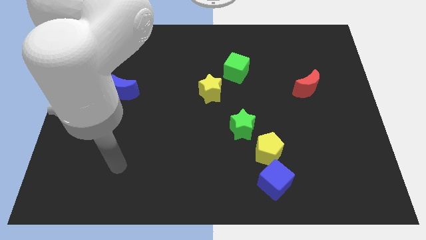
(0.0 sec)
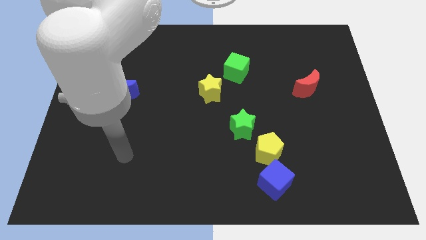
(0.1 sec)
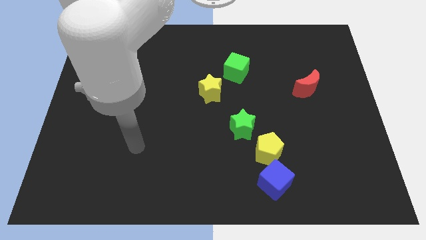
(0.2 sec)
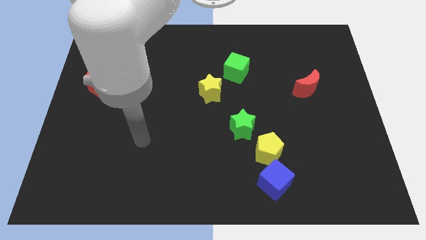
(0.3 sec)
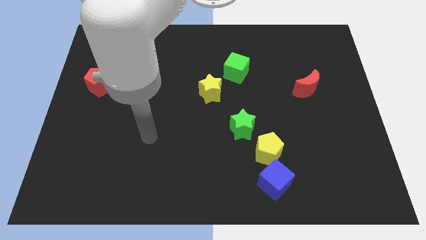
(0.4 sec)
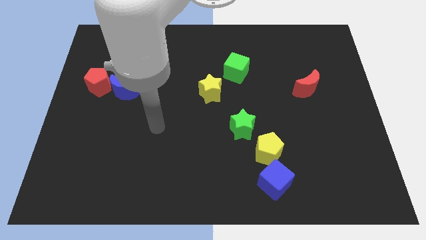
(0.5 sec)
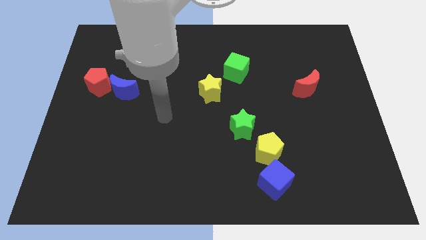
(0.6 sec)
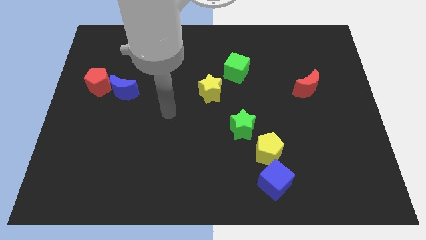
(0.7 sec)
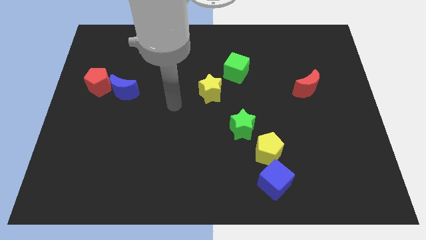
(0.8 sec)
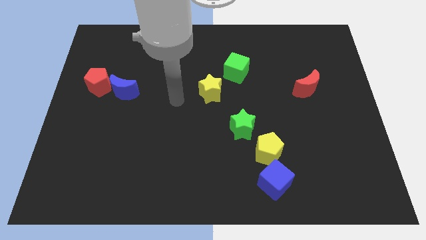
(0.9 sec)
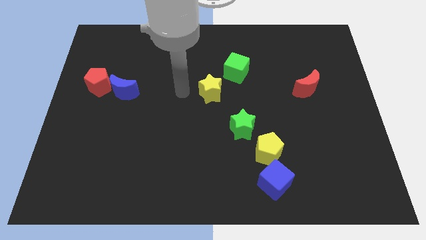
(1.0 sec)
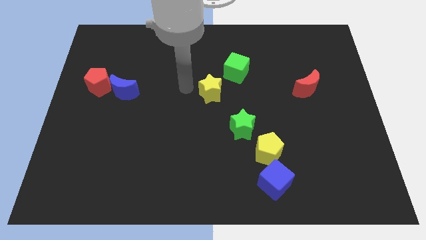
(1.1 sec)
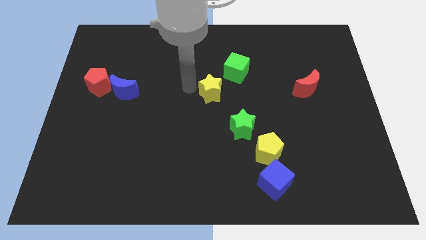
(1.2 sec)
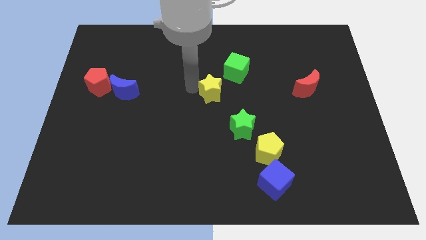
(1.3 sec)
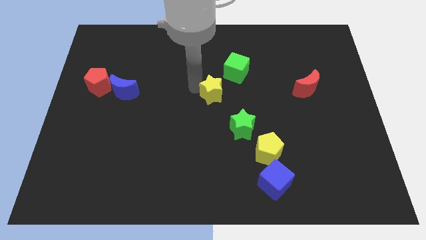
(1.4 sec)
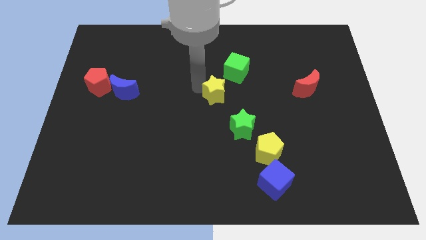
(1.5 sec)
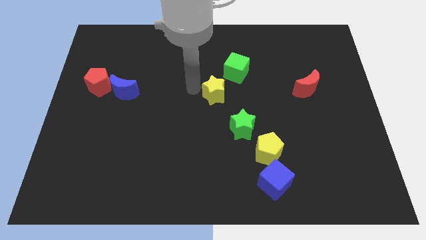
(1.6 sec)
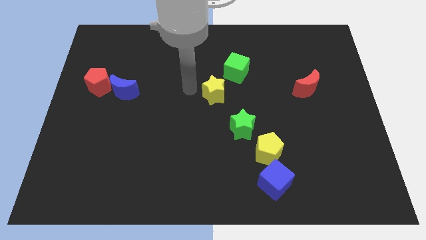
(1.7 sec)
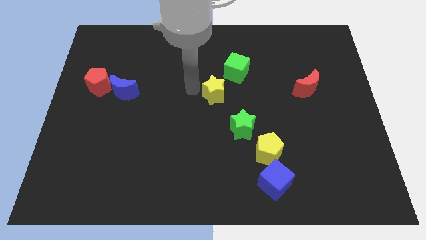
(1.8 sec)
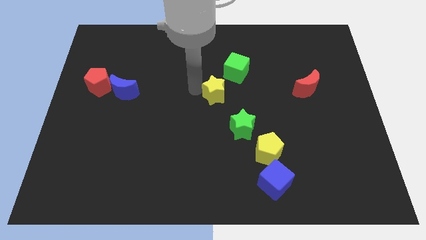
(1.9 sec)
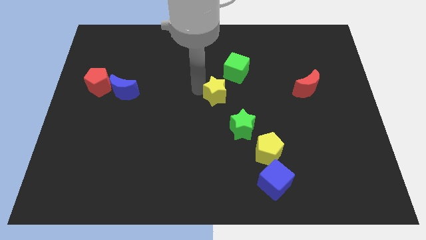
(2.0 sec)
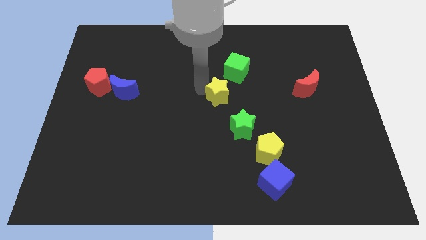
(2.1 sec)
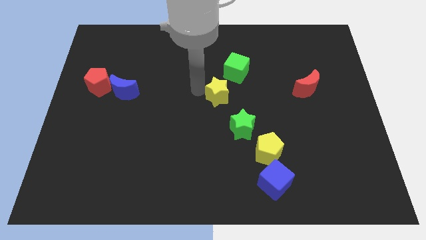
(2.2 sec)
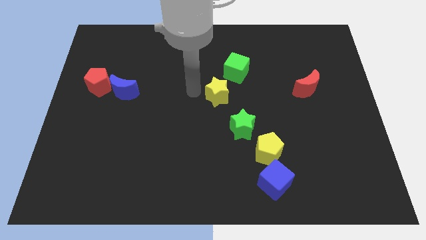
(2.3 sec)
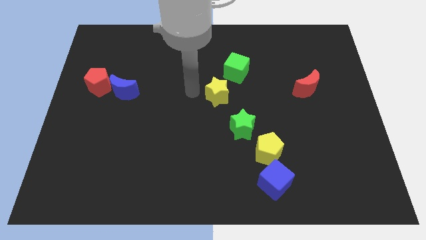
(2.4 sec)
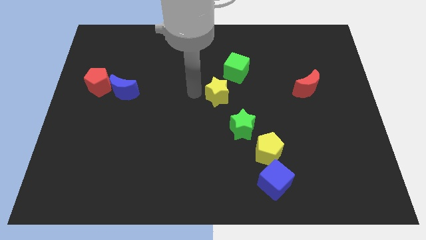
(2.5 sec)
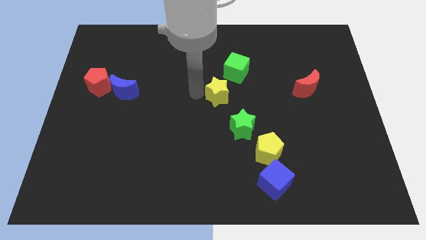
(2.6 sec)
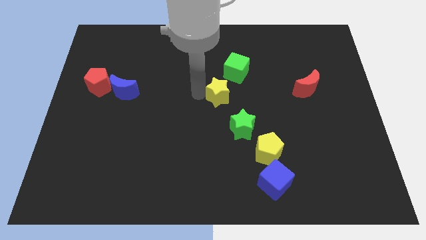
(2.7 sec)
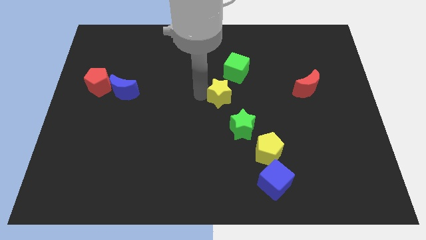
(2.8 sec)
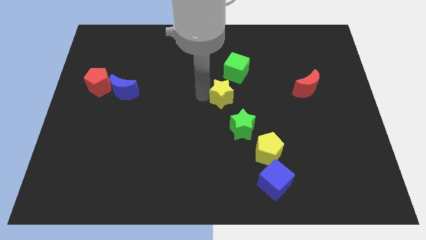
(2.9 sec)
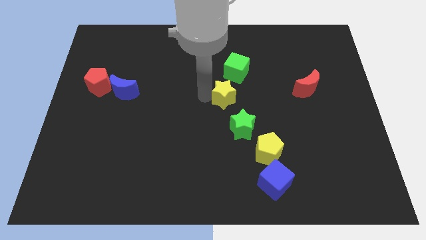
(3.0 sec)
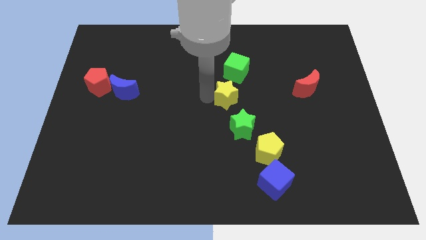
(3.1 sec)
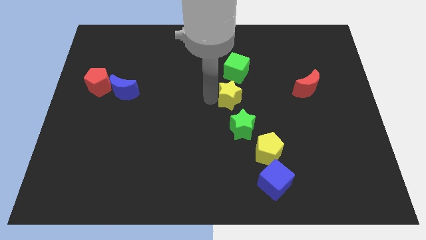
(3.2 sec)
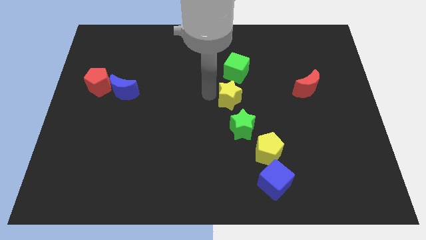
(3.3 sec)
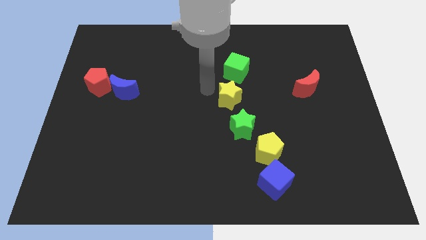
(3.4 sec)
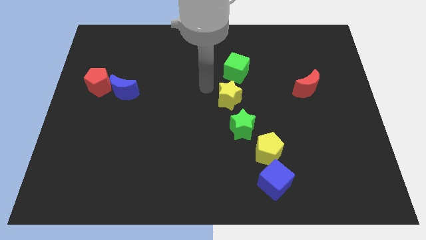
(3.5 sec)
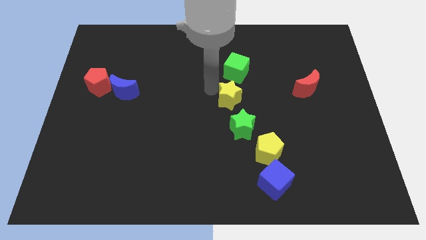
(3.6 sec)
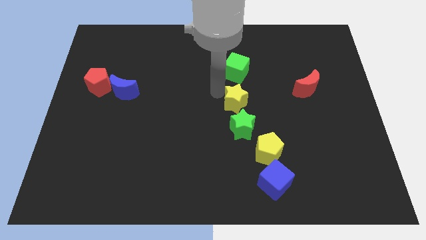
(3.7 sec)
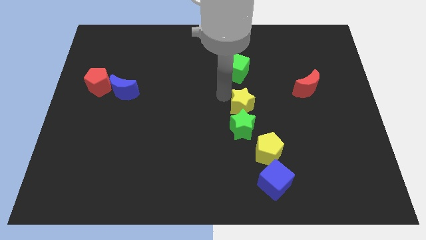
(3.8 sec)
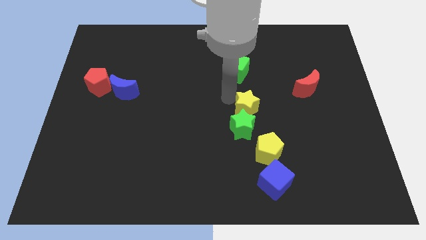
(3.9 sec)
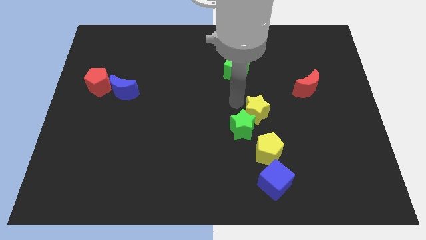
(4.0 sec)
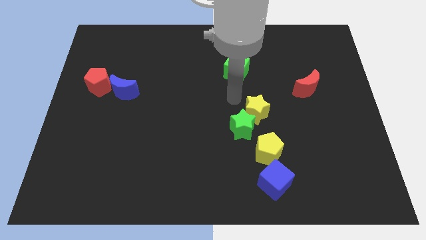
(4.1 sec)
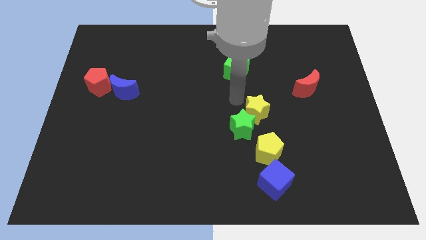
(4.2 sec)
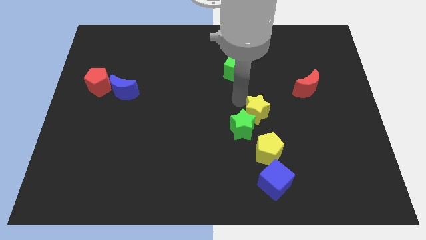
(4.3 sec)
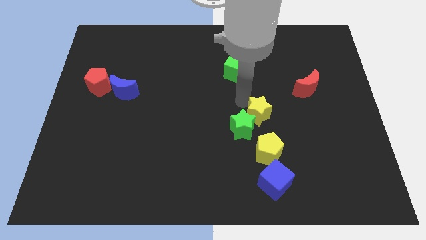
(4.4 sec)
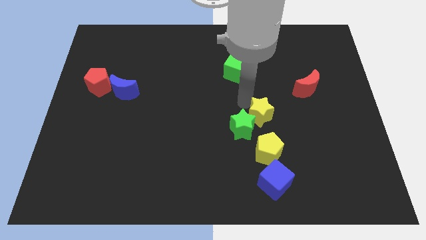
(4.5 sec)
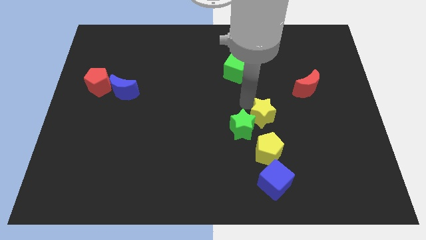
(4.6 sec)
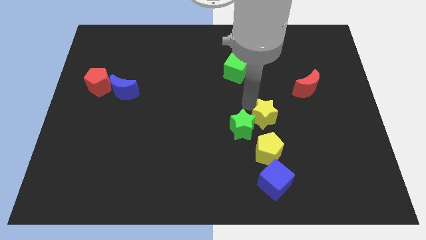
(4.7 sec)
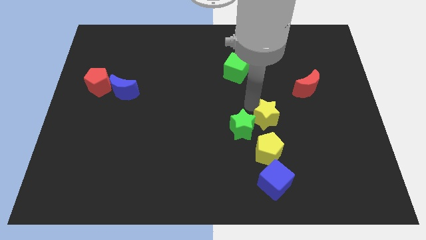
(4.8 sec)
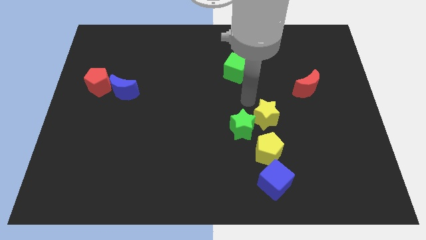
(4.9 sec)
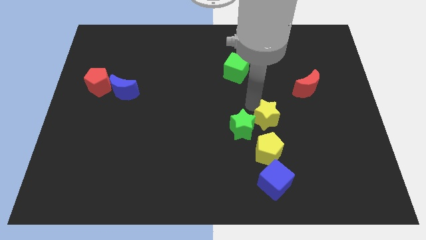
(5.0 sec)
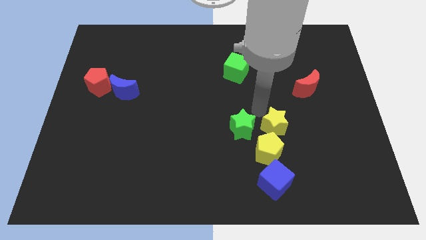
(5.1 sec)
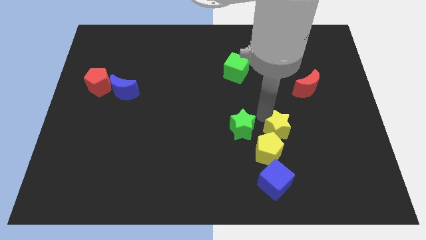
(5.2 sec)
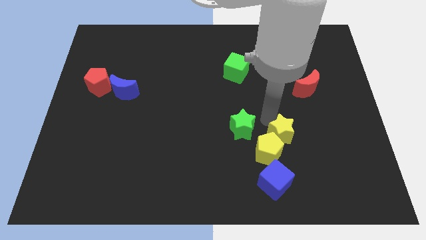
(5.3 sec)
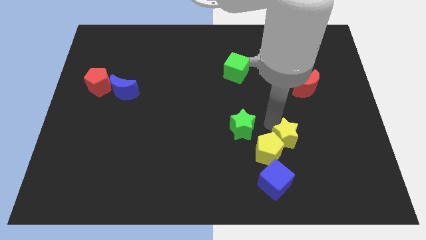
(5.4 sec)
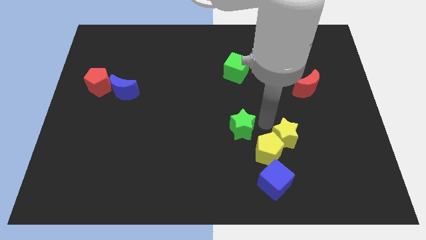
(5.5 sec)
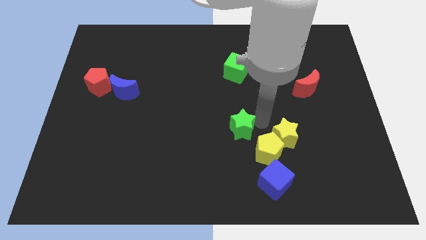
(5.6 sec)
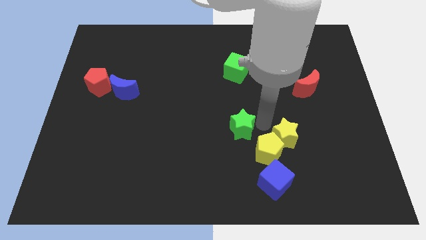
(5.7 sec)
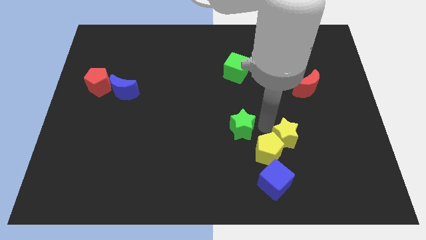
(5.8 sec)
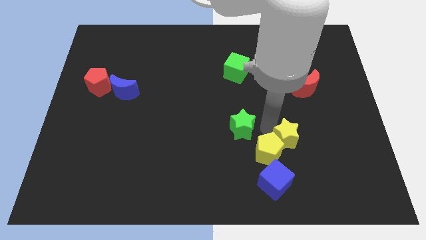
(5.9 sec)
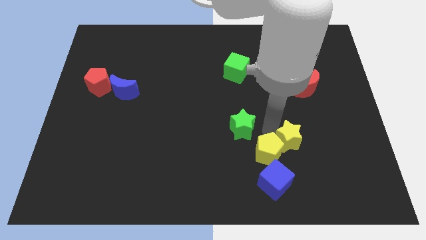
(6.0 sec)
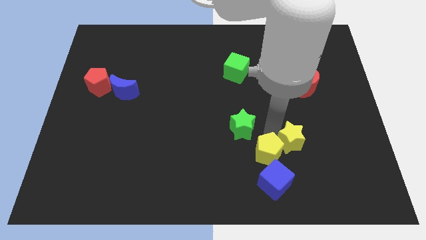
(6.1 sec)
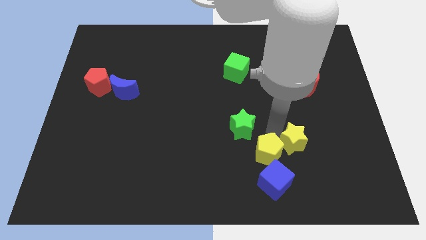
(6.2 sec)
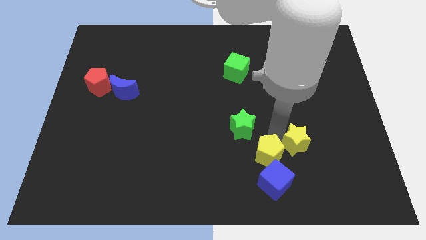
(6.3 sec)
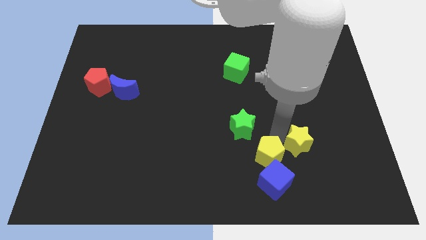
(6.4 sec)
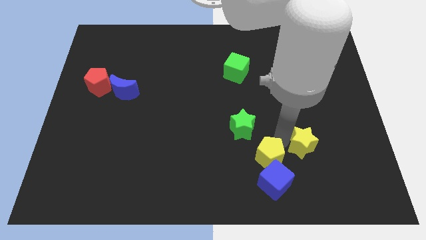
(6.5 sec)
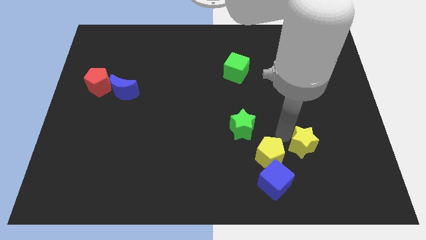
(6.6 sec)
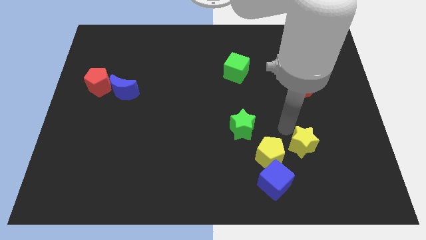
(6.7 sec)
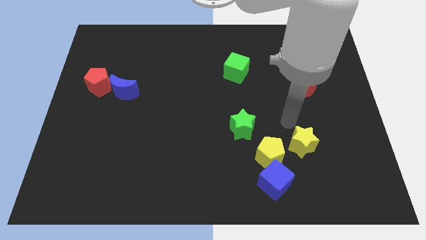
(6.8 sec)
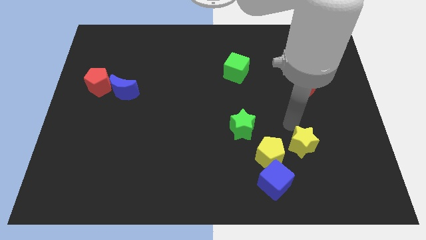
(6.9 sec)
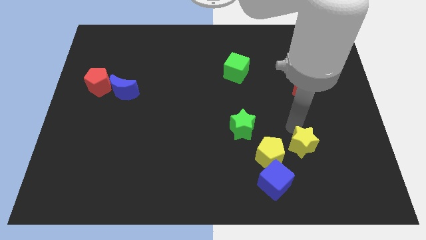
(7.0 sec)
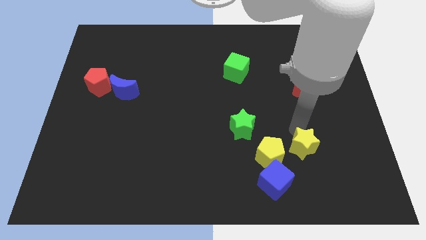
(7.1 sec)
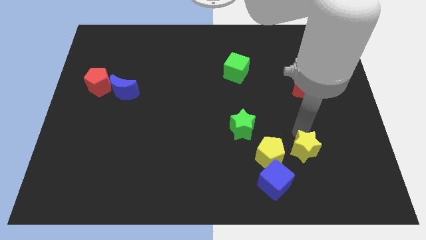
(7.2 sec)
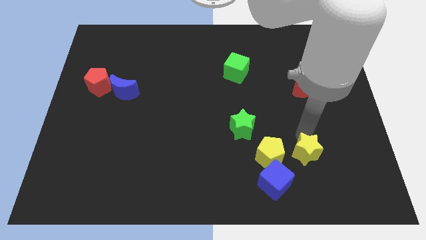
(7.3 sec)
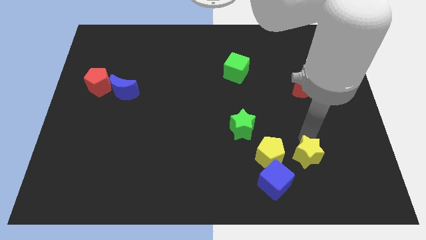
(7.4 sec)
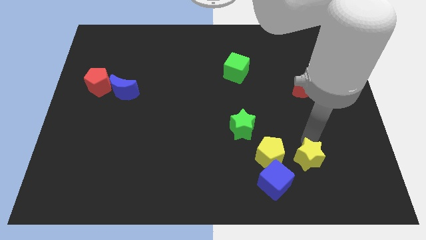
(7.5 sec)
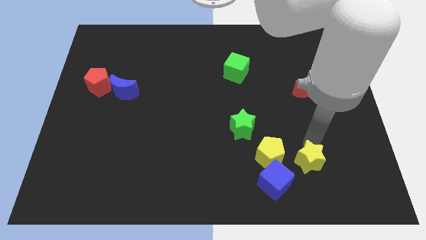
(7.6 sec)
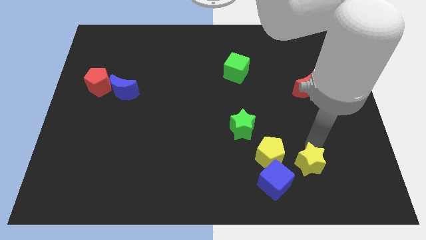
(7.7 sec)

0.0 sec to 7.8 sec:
put the yellow star to the right of the blue cube
